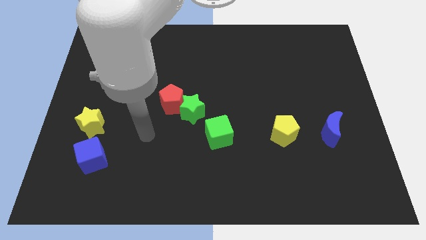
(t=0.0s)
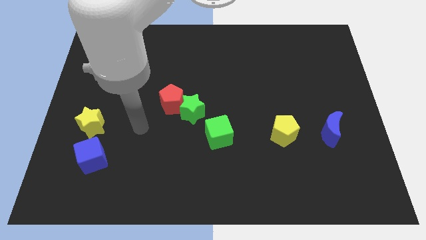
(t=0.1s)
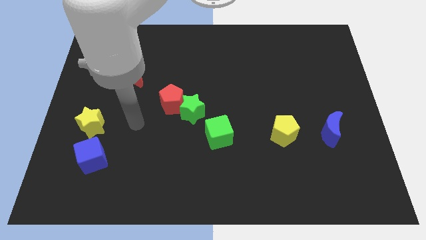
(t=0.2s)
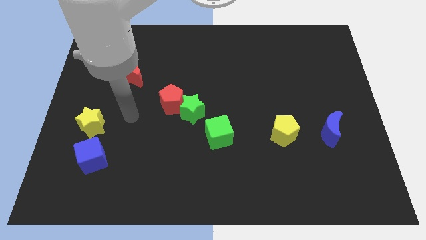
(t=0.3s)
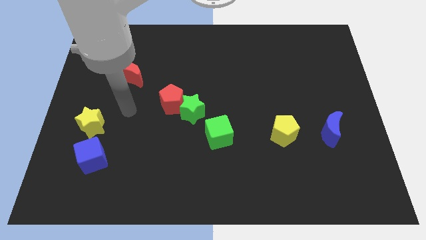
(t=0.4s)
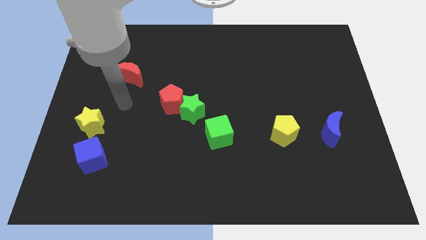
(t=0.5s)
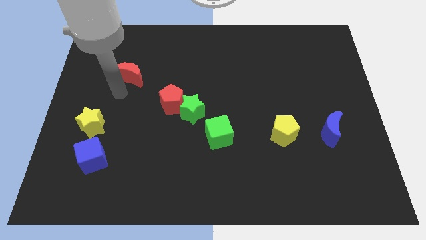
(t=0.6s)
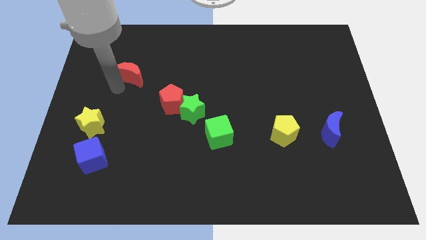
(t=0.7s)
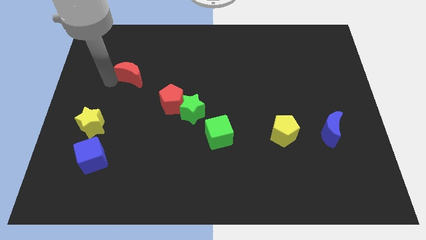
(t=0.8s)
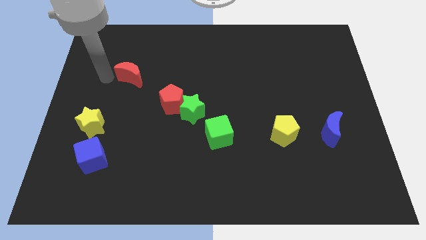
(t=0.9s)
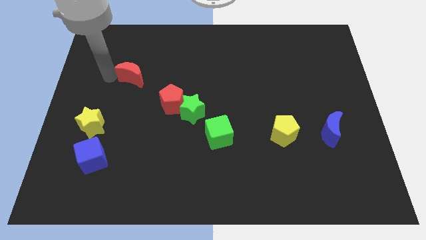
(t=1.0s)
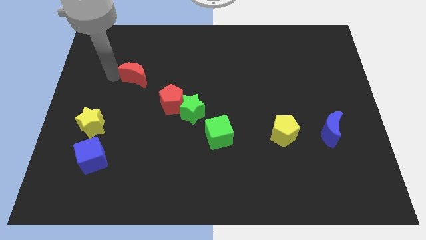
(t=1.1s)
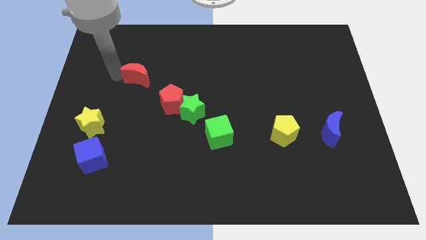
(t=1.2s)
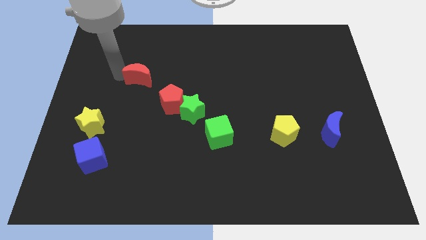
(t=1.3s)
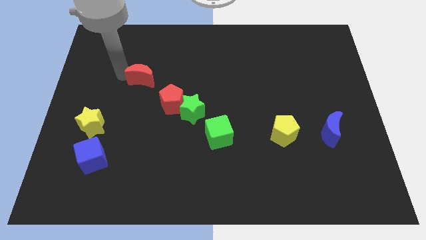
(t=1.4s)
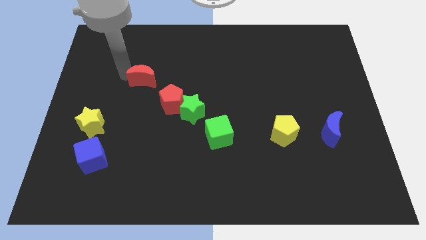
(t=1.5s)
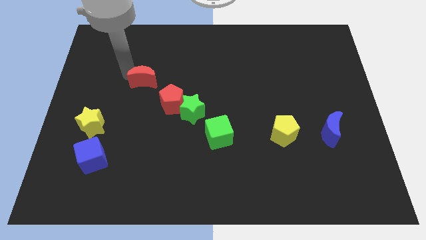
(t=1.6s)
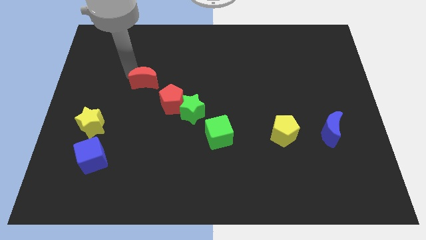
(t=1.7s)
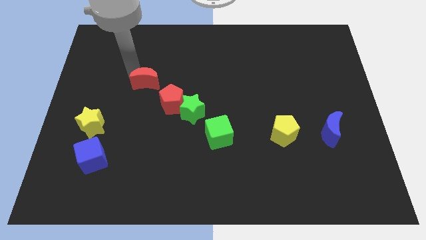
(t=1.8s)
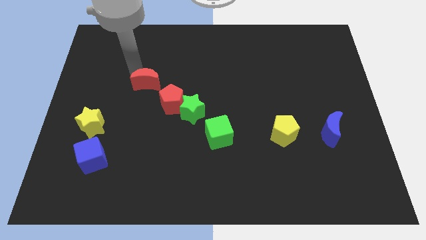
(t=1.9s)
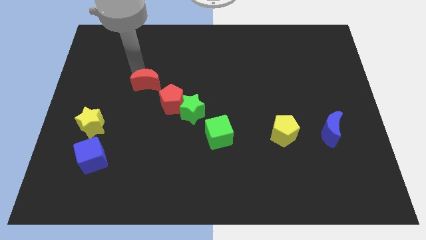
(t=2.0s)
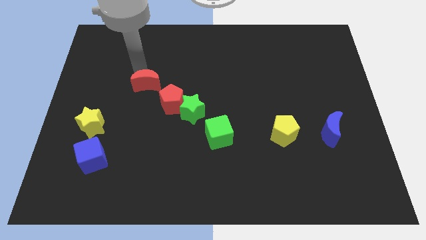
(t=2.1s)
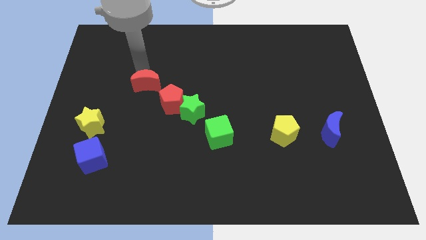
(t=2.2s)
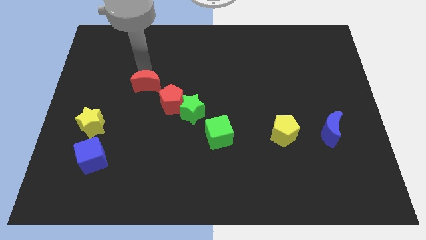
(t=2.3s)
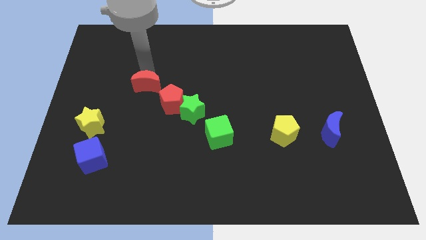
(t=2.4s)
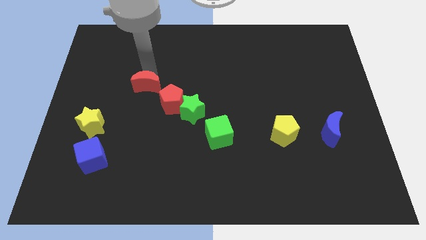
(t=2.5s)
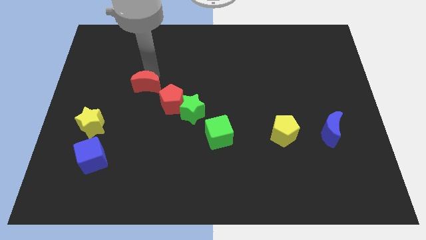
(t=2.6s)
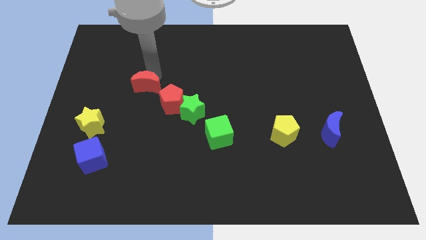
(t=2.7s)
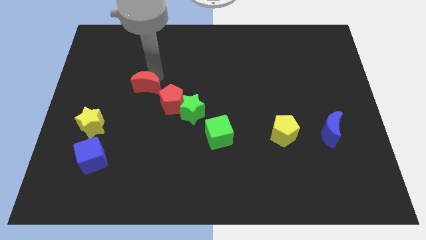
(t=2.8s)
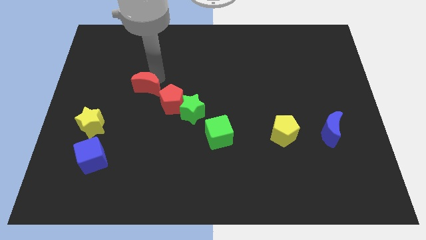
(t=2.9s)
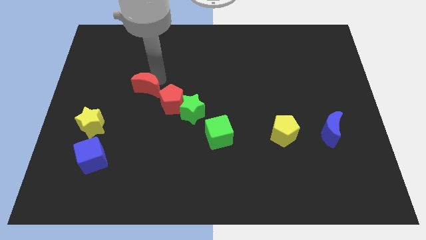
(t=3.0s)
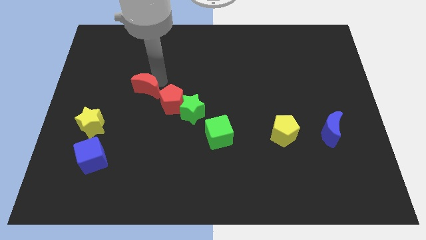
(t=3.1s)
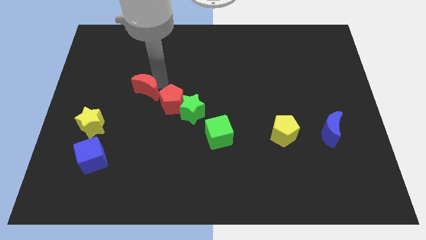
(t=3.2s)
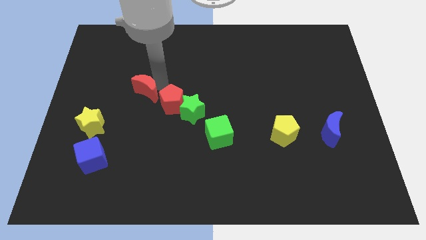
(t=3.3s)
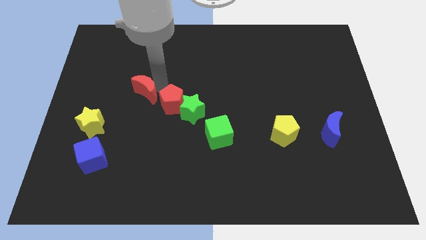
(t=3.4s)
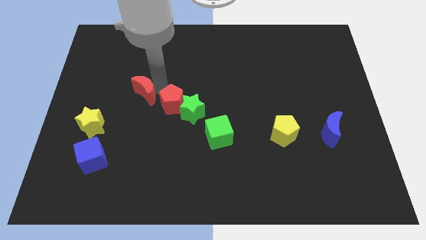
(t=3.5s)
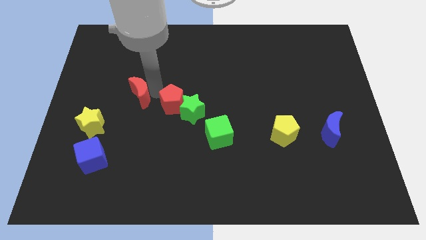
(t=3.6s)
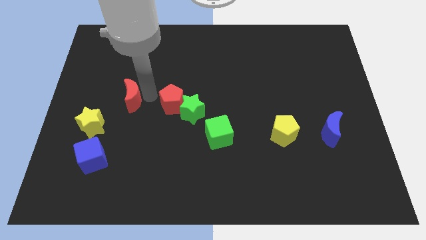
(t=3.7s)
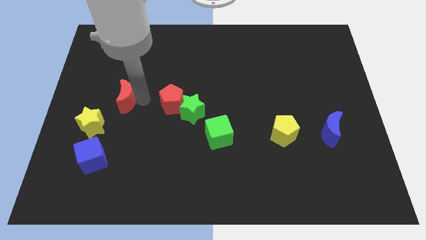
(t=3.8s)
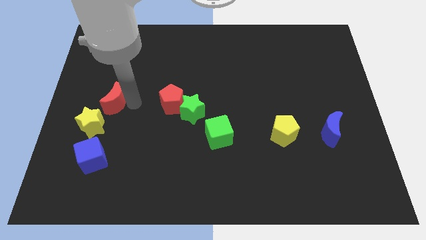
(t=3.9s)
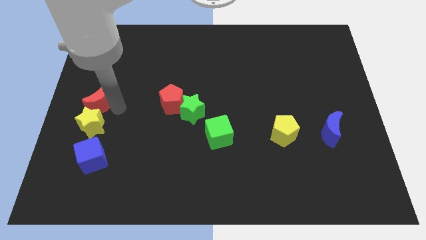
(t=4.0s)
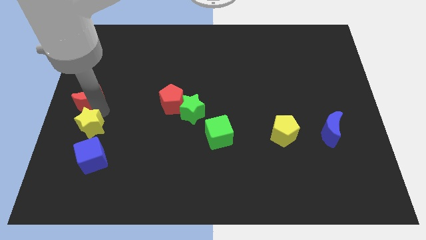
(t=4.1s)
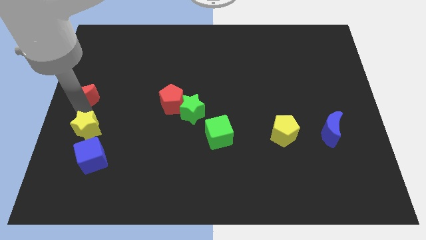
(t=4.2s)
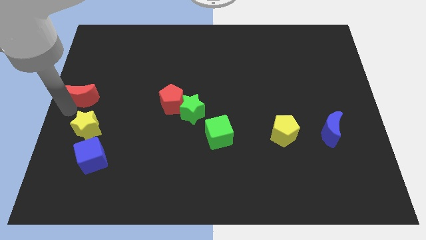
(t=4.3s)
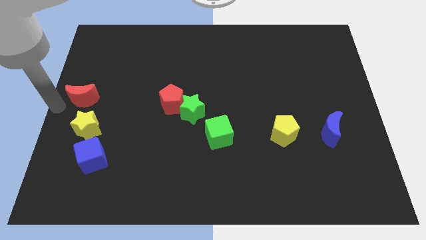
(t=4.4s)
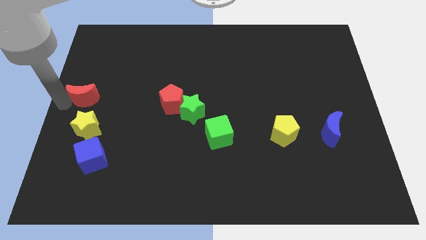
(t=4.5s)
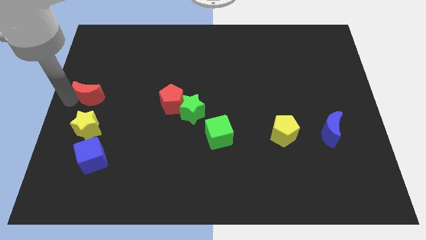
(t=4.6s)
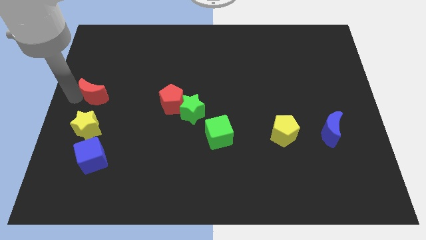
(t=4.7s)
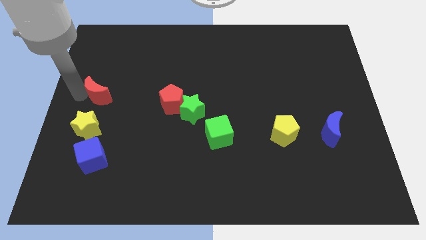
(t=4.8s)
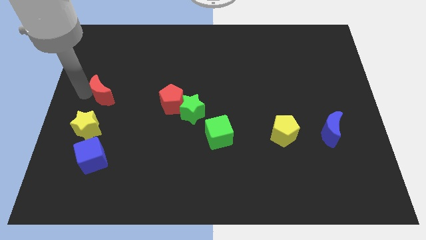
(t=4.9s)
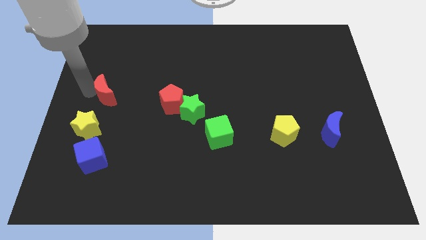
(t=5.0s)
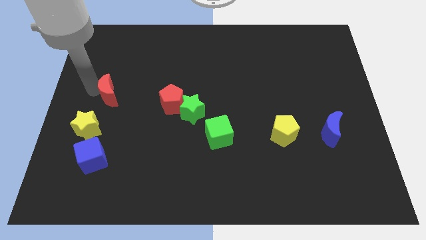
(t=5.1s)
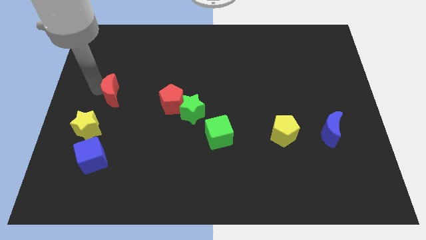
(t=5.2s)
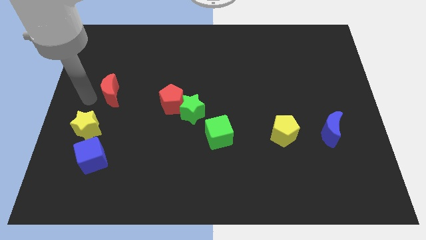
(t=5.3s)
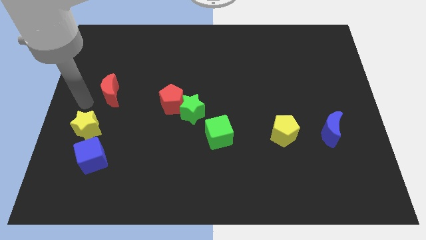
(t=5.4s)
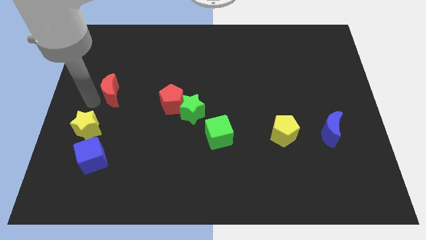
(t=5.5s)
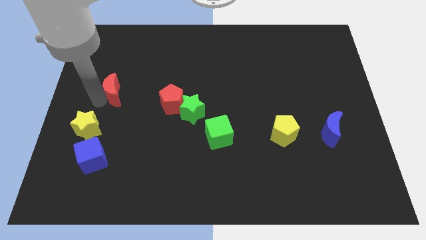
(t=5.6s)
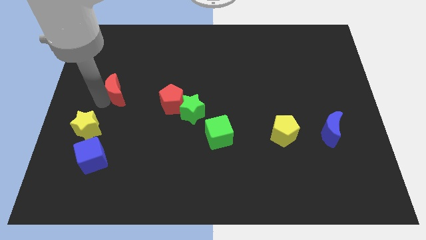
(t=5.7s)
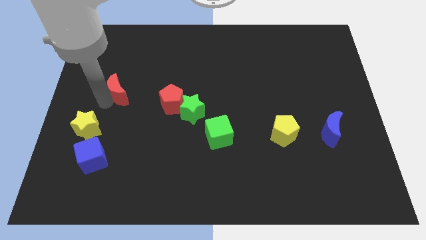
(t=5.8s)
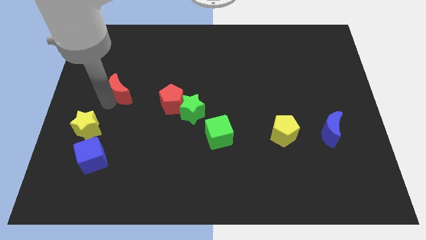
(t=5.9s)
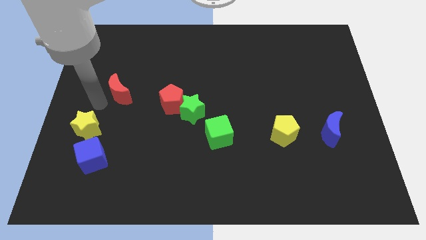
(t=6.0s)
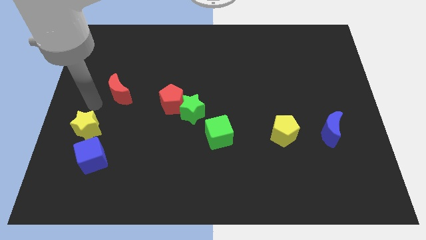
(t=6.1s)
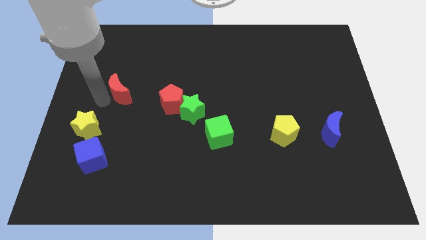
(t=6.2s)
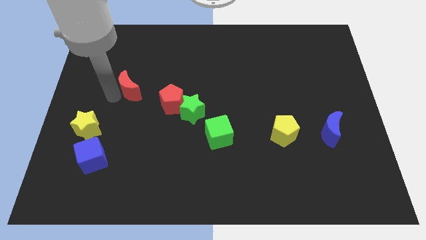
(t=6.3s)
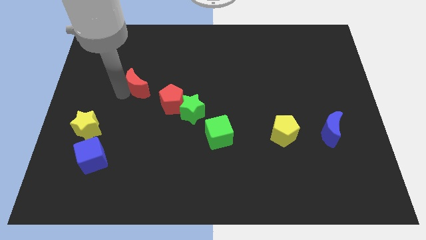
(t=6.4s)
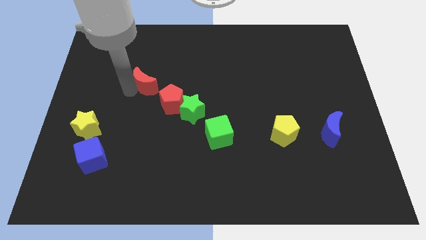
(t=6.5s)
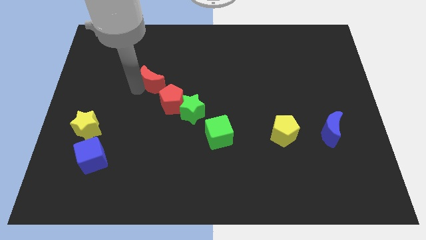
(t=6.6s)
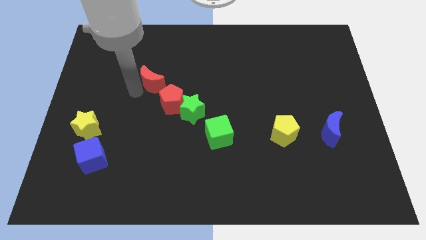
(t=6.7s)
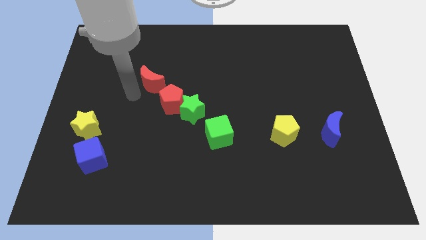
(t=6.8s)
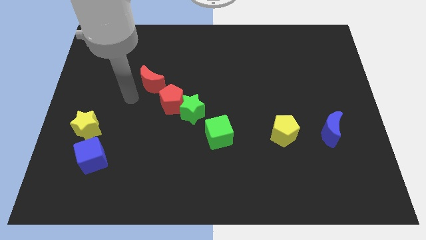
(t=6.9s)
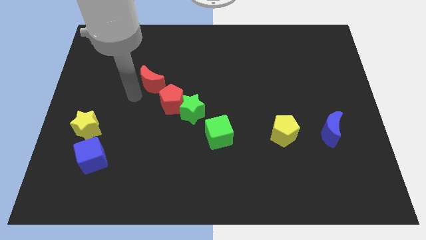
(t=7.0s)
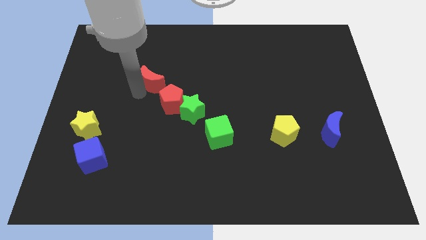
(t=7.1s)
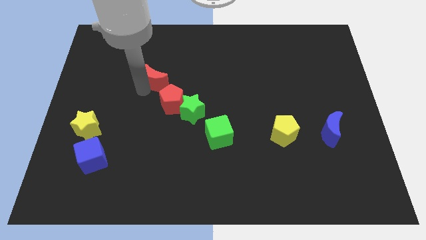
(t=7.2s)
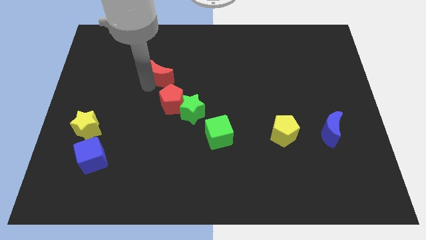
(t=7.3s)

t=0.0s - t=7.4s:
move the red moon a bit to the right

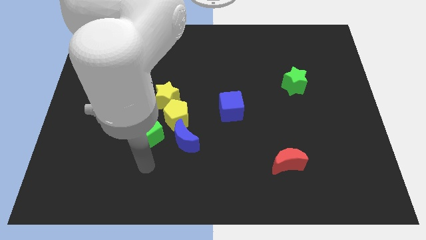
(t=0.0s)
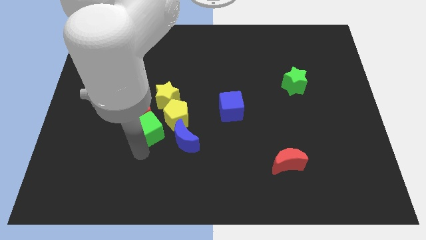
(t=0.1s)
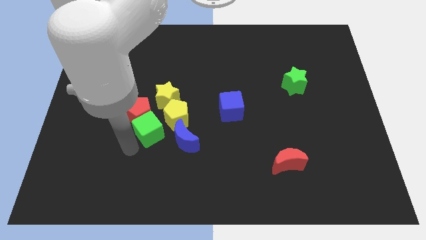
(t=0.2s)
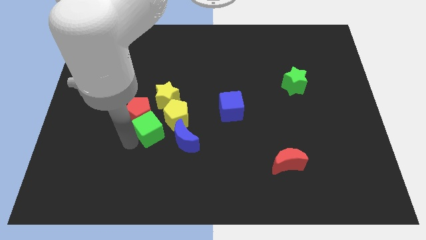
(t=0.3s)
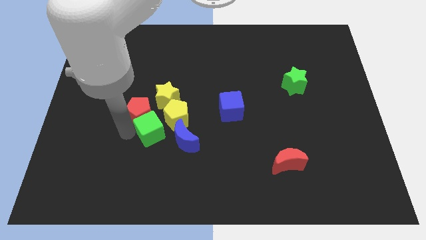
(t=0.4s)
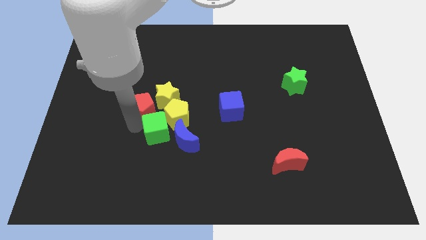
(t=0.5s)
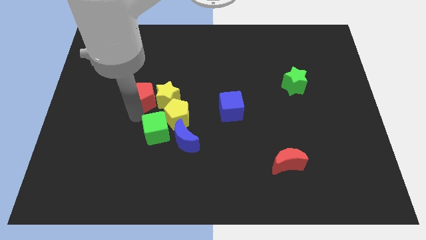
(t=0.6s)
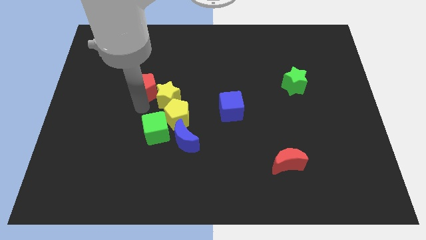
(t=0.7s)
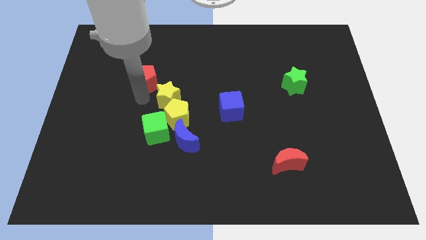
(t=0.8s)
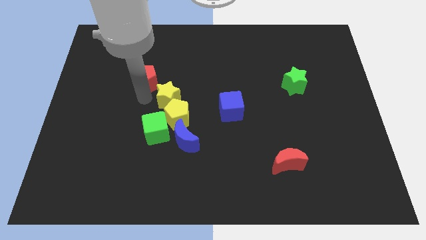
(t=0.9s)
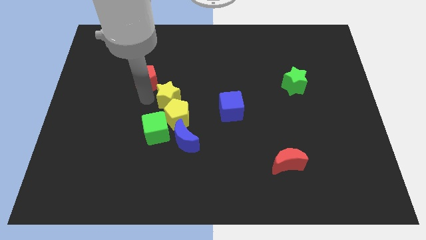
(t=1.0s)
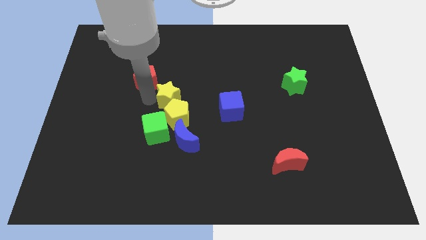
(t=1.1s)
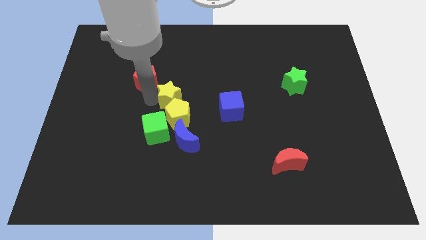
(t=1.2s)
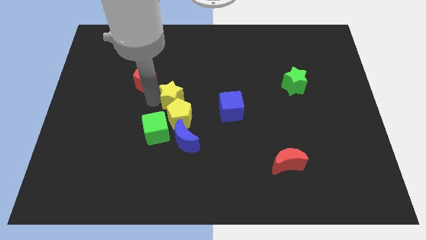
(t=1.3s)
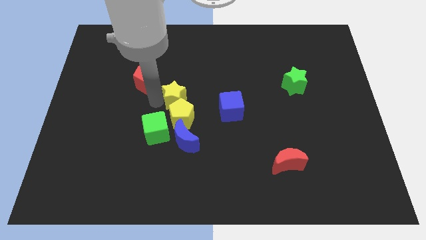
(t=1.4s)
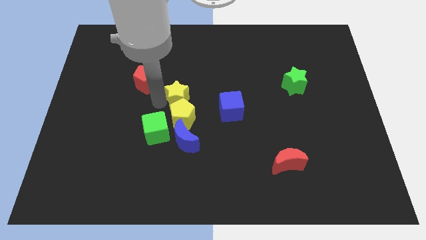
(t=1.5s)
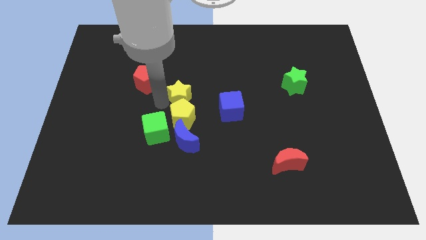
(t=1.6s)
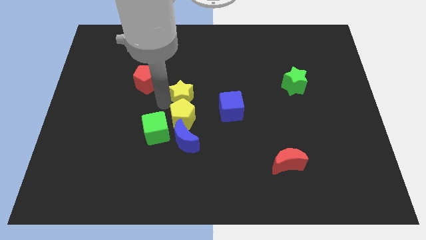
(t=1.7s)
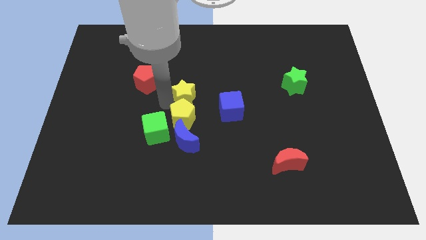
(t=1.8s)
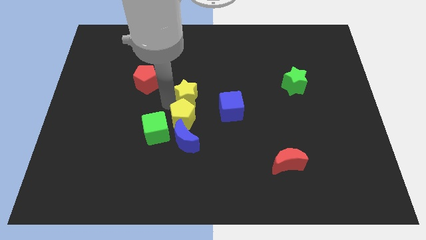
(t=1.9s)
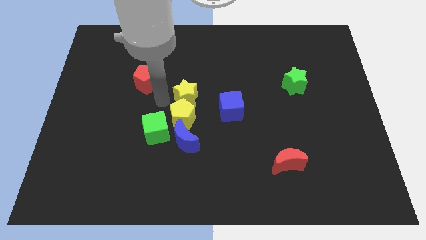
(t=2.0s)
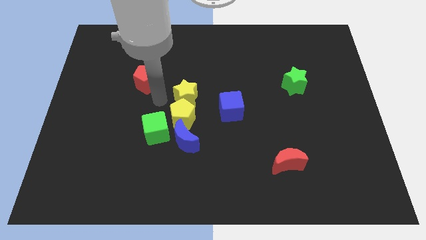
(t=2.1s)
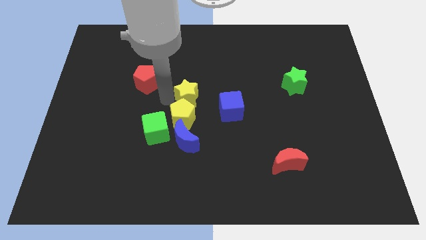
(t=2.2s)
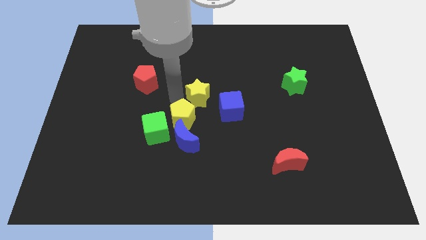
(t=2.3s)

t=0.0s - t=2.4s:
slightly push the yellow star right
